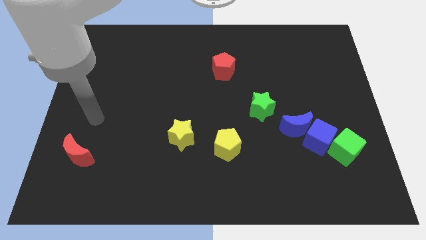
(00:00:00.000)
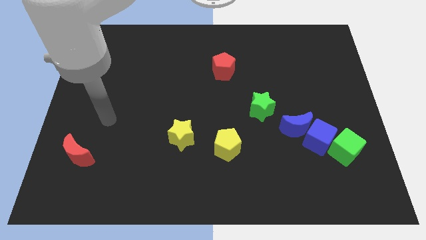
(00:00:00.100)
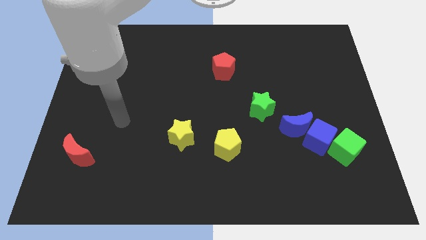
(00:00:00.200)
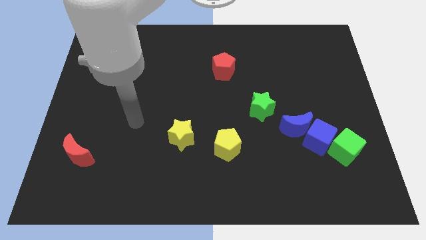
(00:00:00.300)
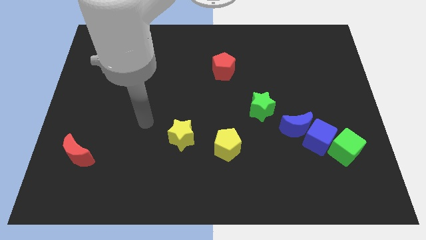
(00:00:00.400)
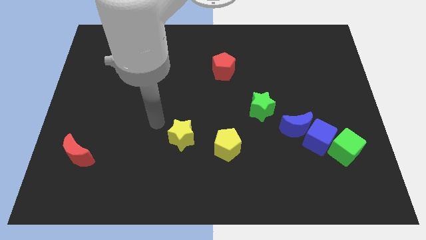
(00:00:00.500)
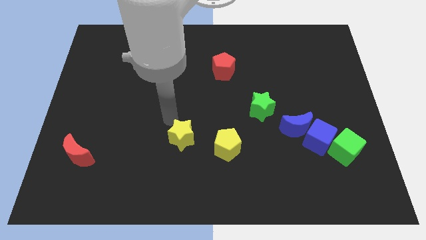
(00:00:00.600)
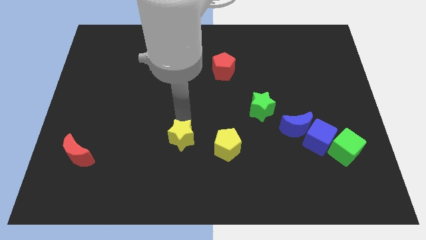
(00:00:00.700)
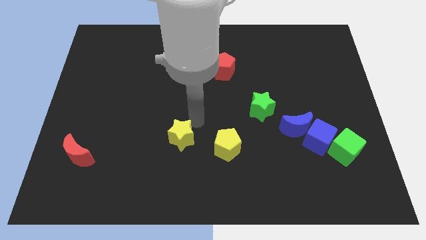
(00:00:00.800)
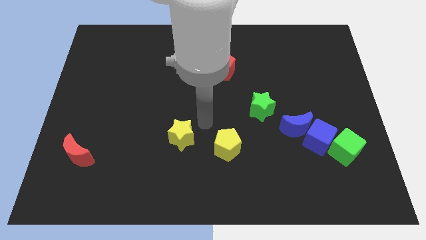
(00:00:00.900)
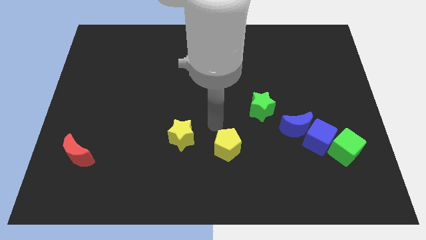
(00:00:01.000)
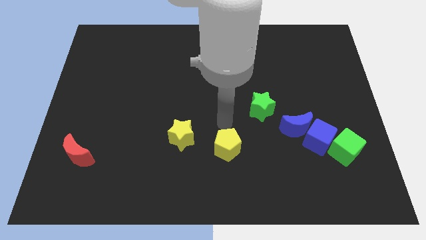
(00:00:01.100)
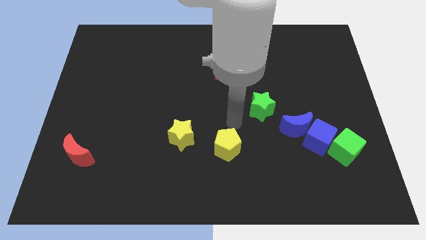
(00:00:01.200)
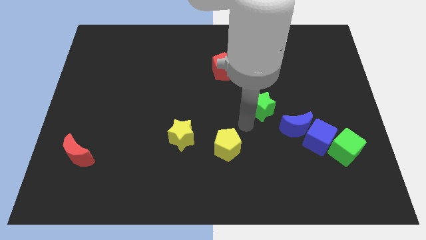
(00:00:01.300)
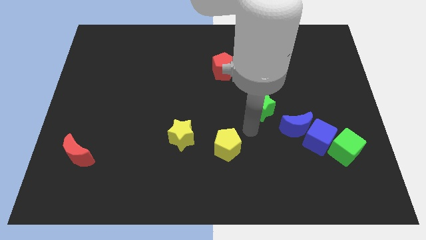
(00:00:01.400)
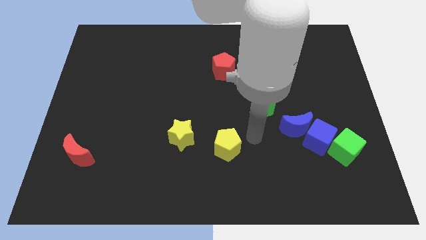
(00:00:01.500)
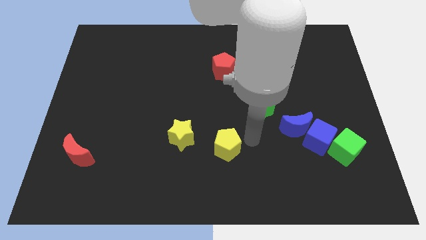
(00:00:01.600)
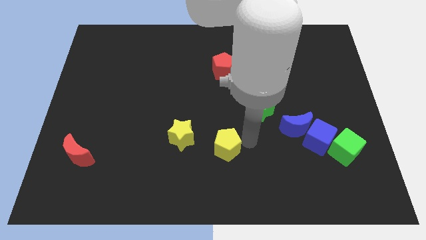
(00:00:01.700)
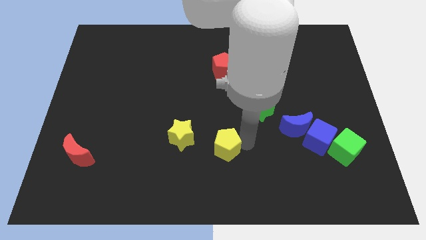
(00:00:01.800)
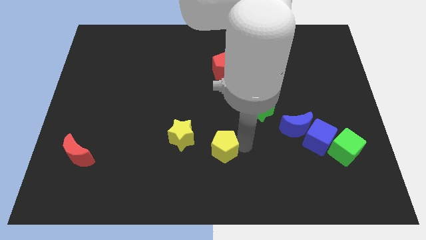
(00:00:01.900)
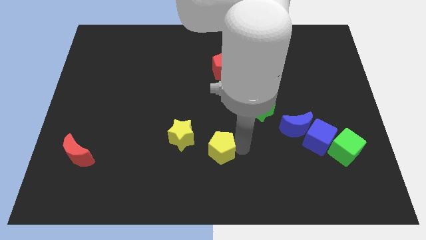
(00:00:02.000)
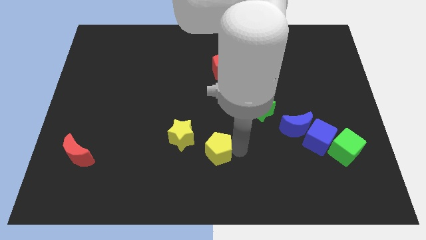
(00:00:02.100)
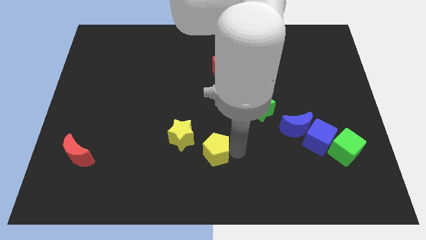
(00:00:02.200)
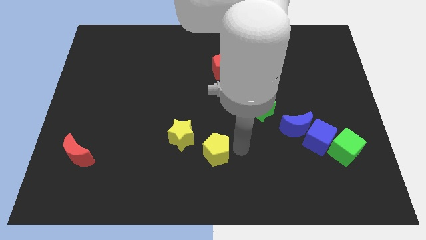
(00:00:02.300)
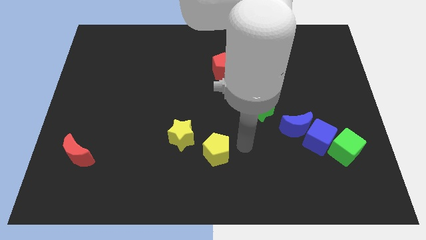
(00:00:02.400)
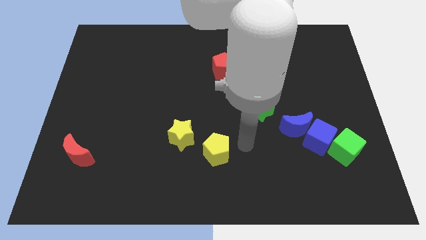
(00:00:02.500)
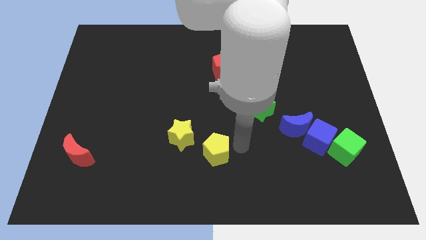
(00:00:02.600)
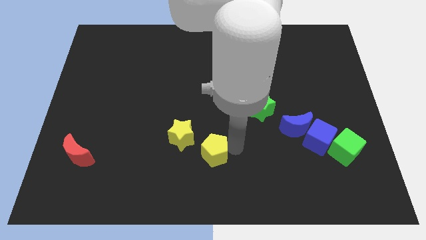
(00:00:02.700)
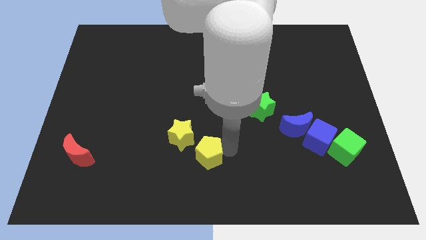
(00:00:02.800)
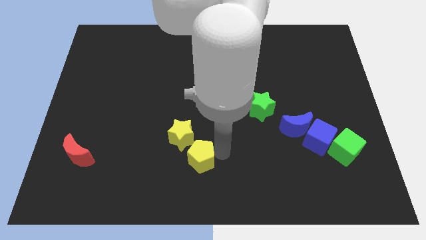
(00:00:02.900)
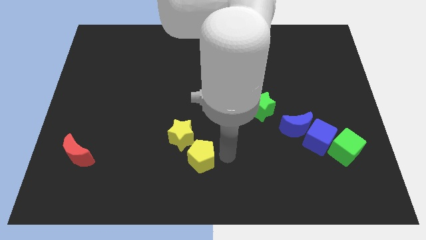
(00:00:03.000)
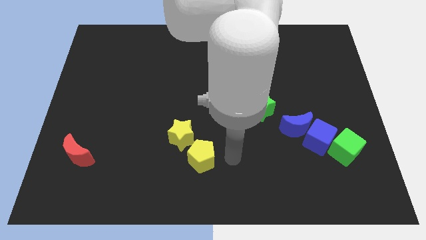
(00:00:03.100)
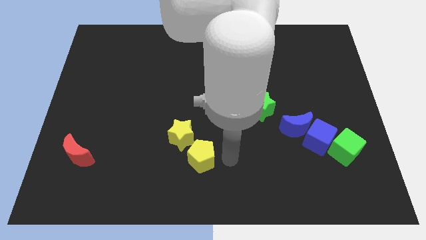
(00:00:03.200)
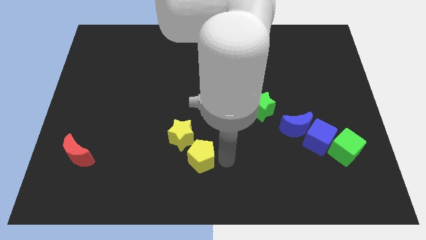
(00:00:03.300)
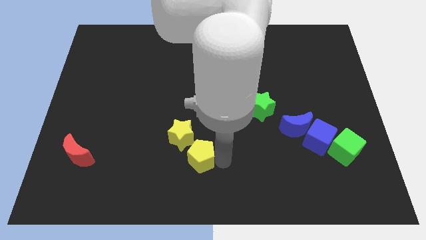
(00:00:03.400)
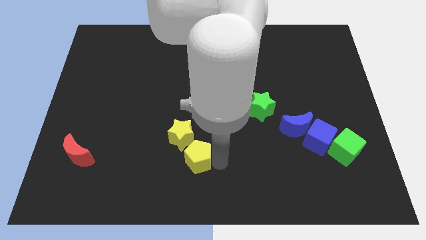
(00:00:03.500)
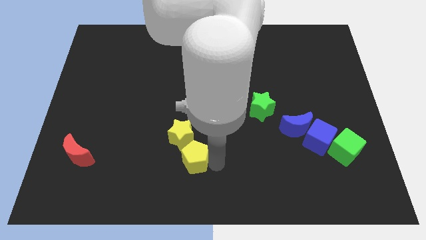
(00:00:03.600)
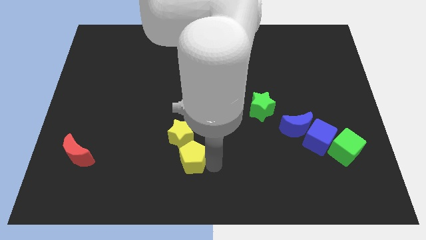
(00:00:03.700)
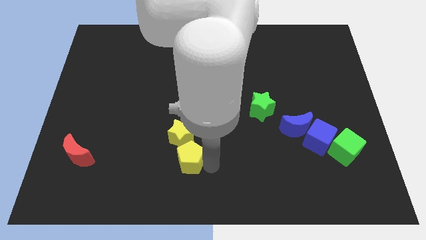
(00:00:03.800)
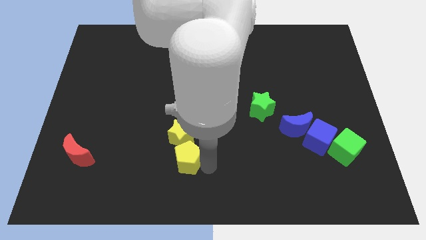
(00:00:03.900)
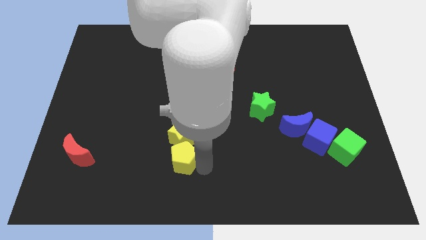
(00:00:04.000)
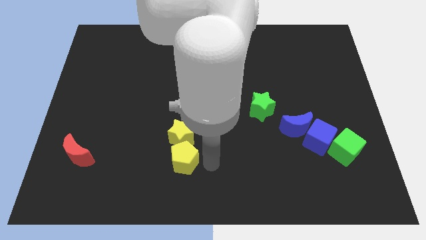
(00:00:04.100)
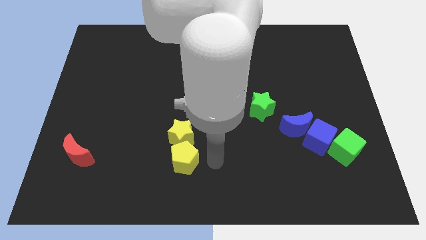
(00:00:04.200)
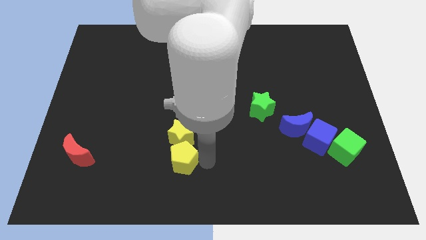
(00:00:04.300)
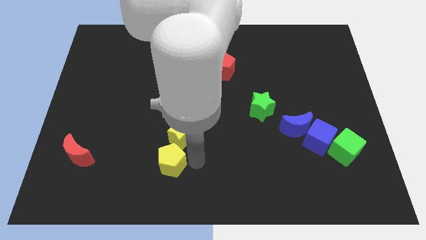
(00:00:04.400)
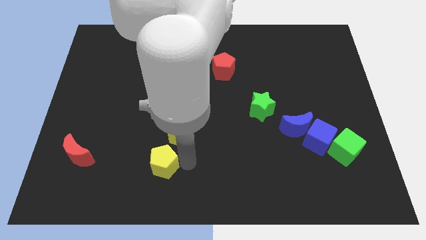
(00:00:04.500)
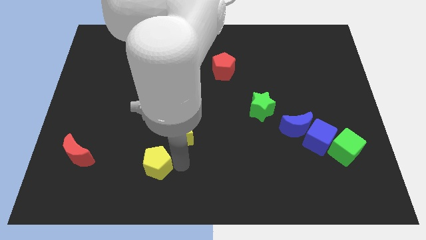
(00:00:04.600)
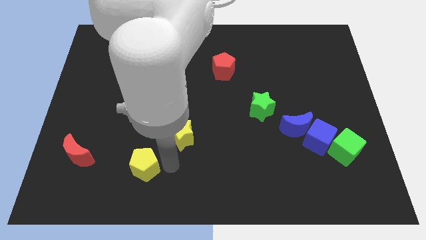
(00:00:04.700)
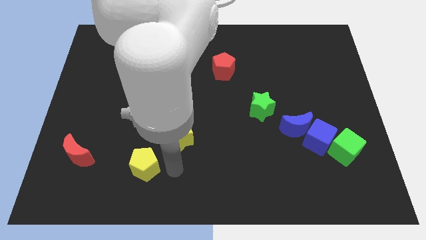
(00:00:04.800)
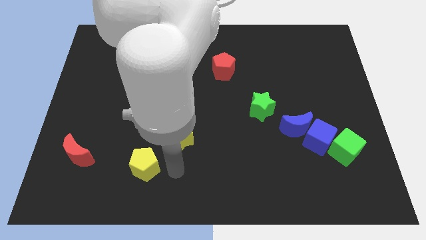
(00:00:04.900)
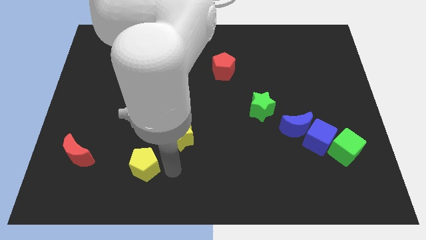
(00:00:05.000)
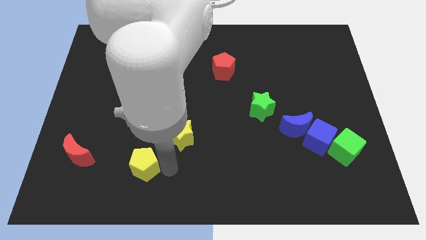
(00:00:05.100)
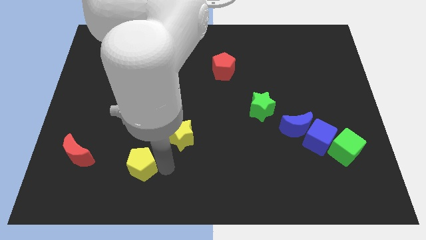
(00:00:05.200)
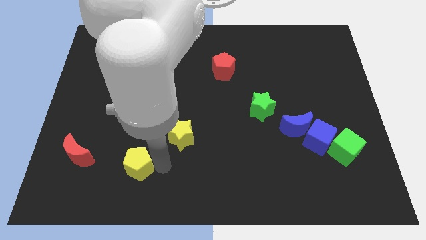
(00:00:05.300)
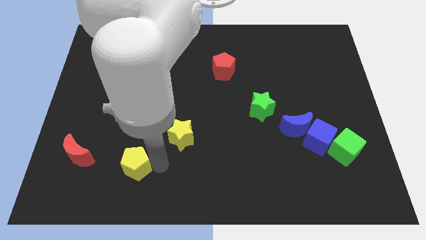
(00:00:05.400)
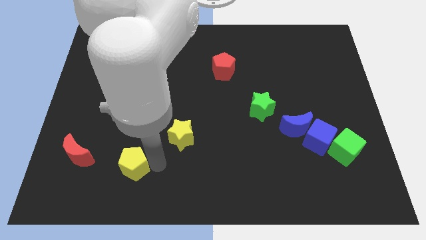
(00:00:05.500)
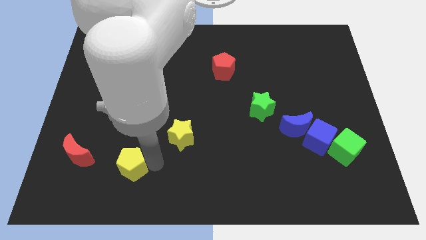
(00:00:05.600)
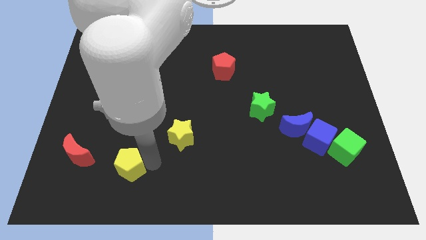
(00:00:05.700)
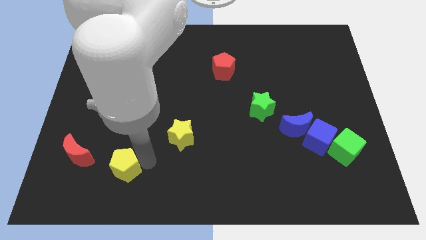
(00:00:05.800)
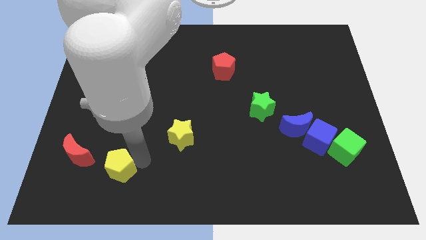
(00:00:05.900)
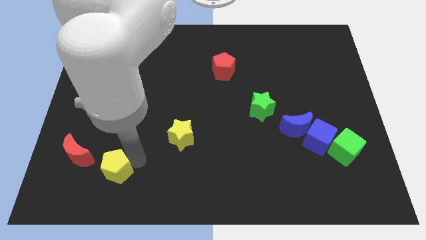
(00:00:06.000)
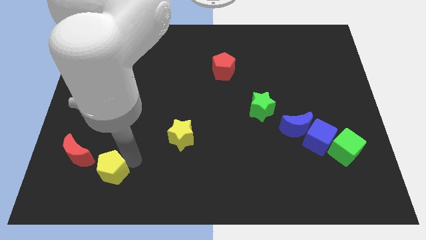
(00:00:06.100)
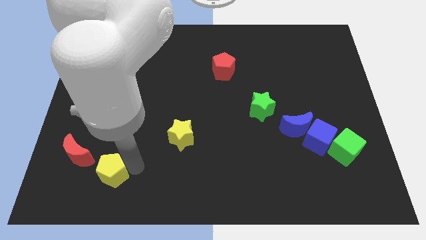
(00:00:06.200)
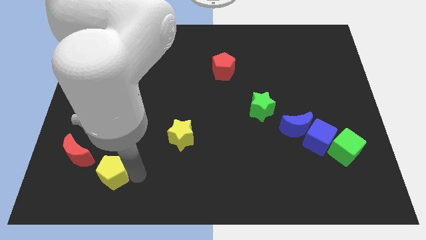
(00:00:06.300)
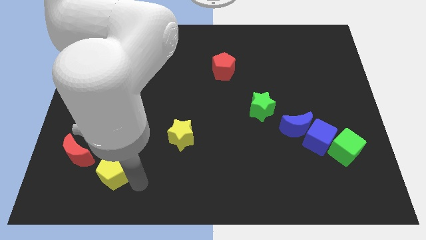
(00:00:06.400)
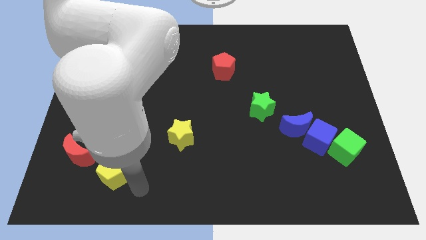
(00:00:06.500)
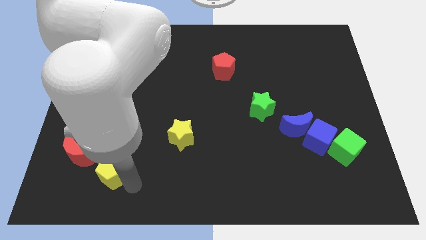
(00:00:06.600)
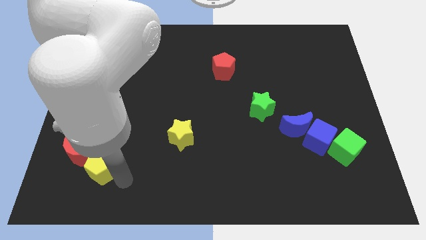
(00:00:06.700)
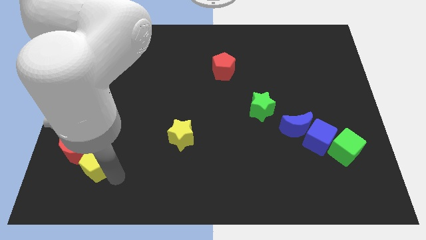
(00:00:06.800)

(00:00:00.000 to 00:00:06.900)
move the yellow pentagon close to the red moon
